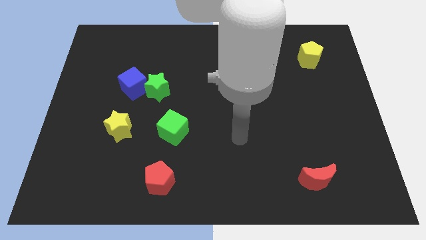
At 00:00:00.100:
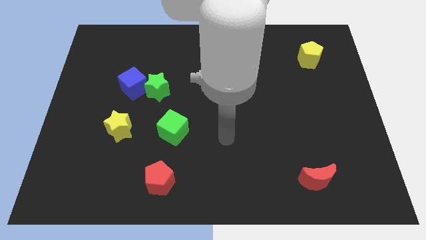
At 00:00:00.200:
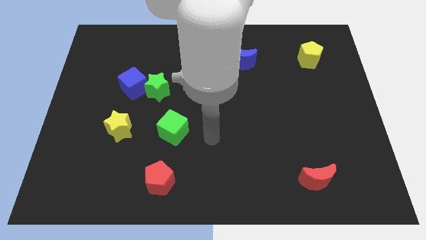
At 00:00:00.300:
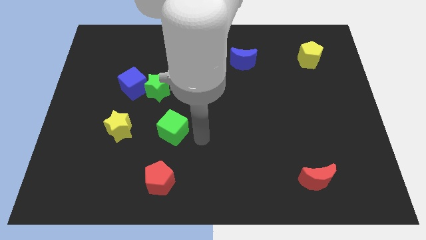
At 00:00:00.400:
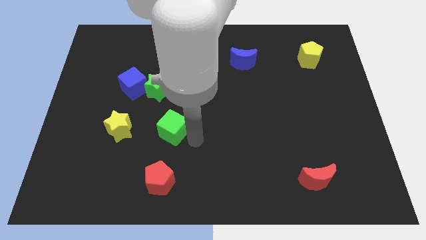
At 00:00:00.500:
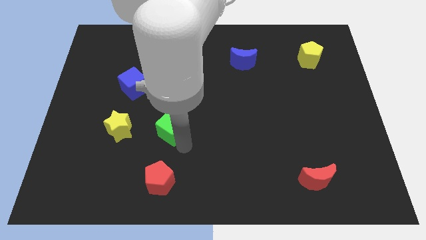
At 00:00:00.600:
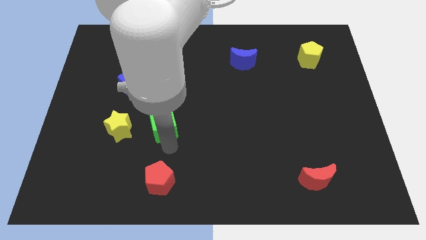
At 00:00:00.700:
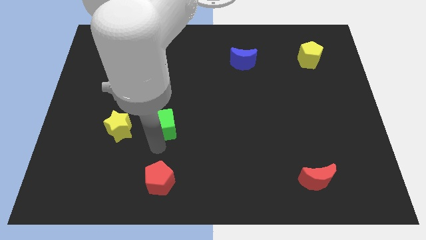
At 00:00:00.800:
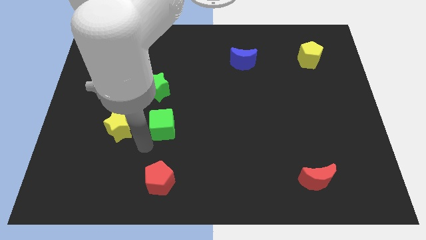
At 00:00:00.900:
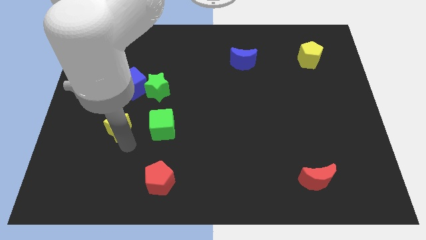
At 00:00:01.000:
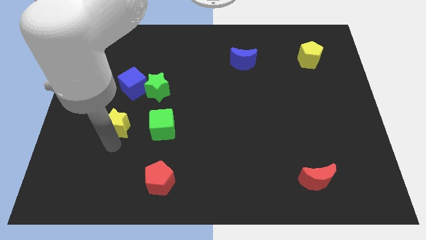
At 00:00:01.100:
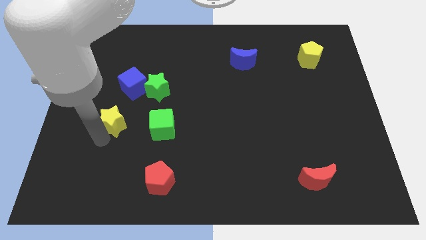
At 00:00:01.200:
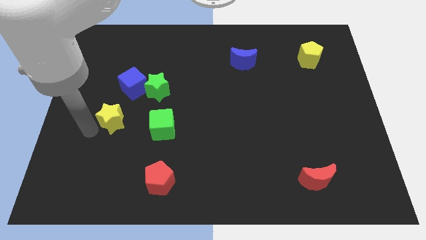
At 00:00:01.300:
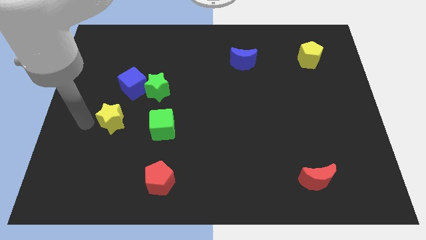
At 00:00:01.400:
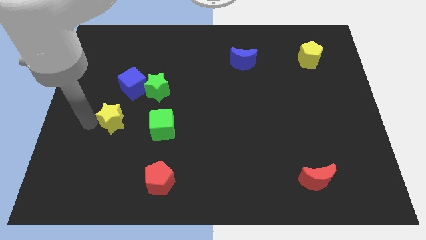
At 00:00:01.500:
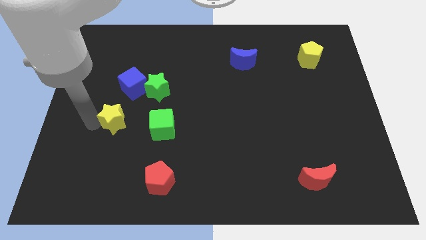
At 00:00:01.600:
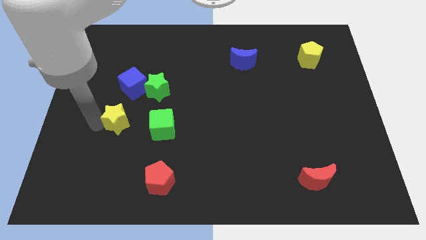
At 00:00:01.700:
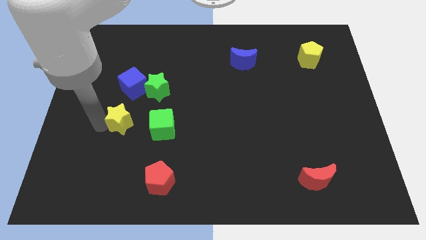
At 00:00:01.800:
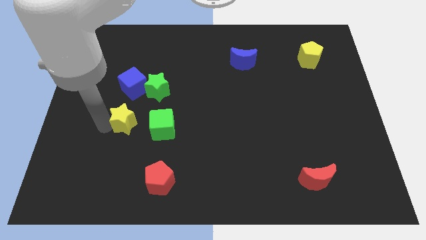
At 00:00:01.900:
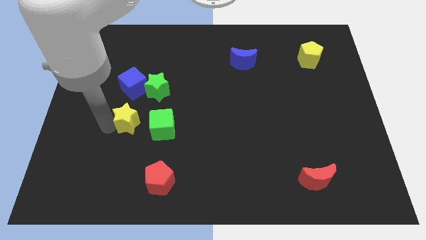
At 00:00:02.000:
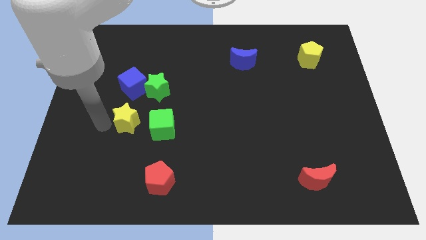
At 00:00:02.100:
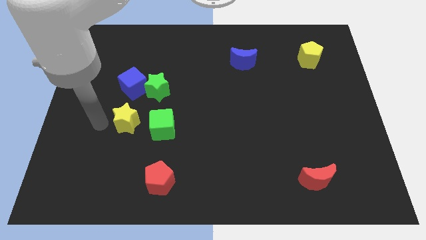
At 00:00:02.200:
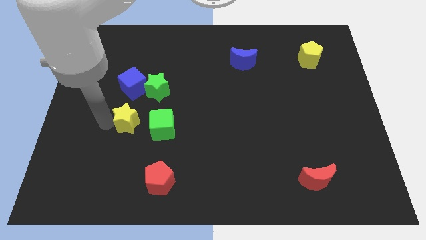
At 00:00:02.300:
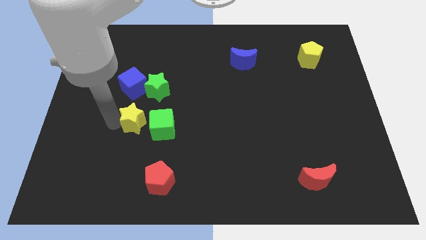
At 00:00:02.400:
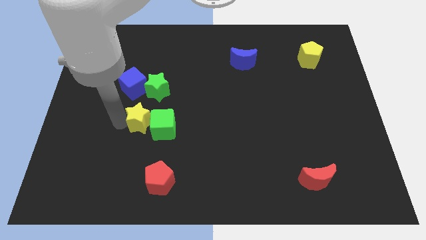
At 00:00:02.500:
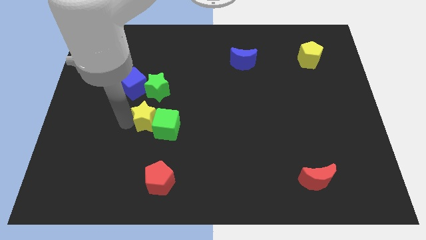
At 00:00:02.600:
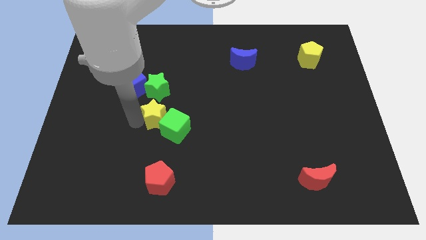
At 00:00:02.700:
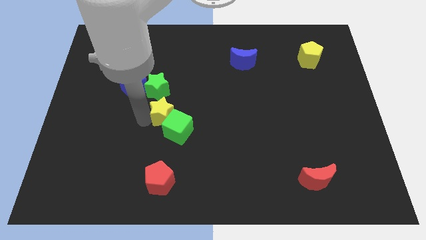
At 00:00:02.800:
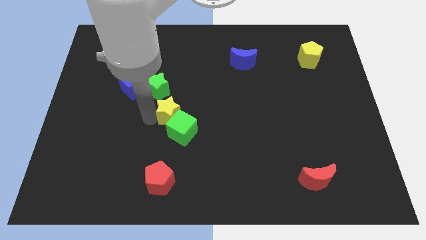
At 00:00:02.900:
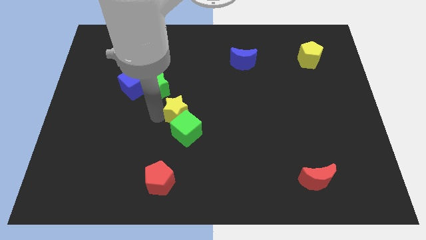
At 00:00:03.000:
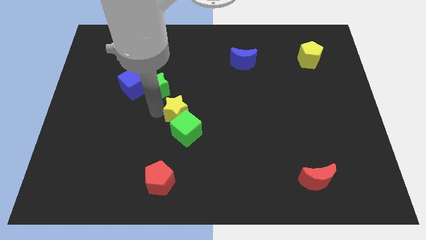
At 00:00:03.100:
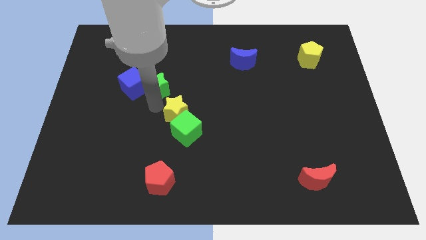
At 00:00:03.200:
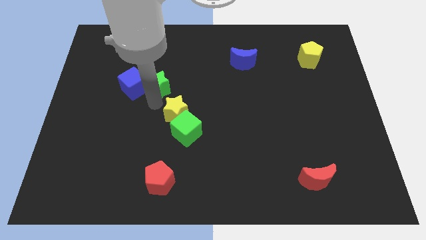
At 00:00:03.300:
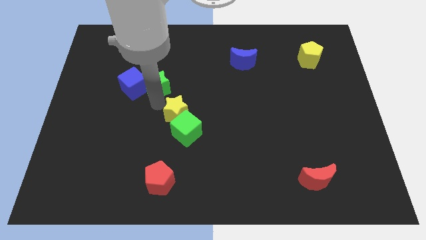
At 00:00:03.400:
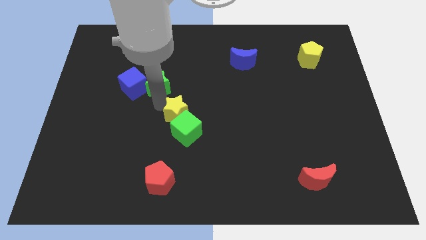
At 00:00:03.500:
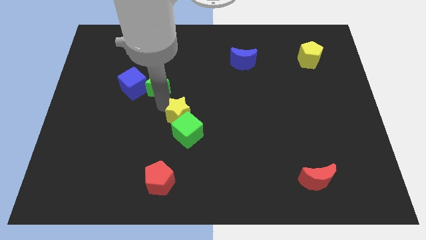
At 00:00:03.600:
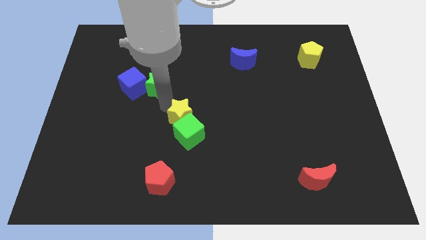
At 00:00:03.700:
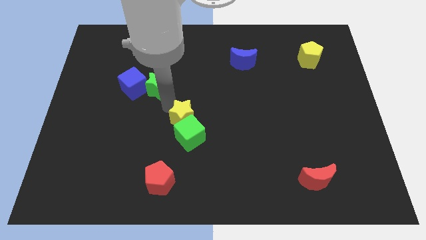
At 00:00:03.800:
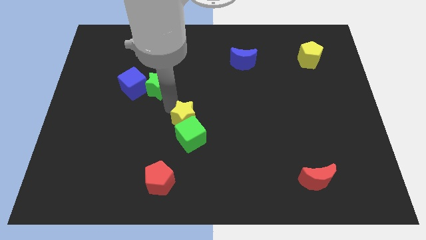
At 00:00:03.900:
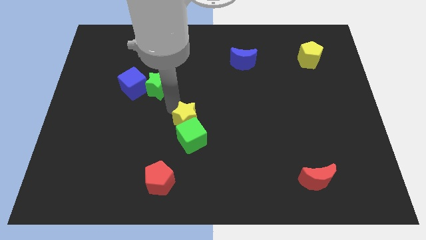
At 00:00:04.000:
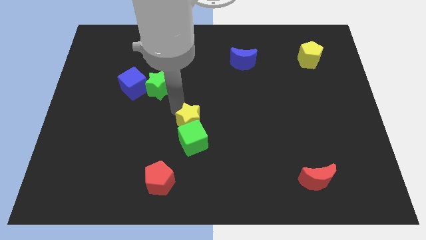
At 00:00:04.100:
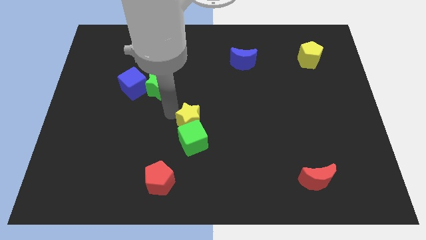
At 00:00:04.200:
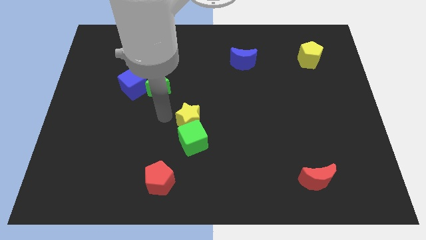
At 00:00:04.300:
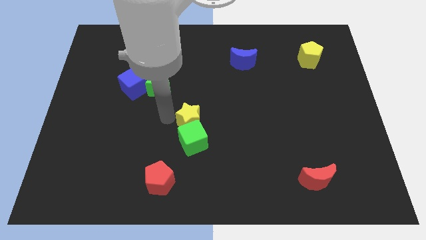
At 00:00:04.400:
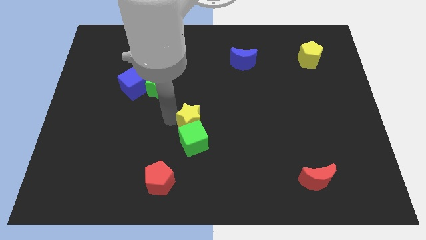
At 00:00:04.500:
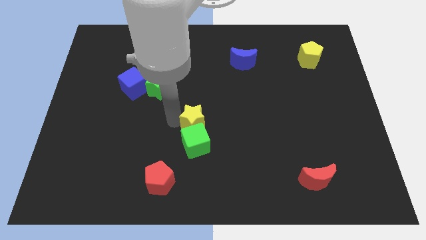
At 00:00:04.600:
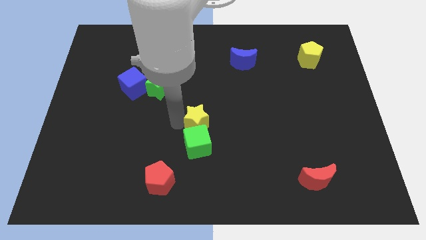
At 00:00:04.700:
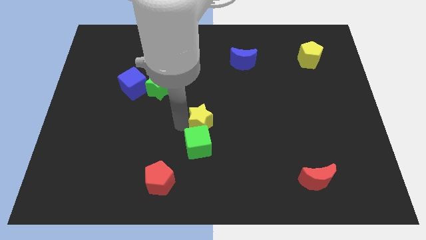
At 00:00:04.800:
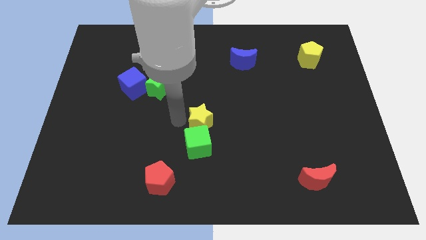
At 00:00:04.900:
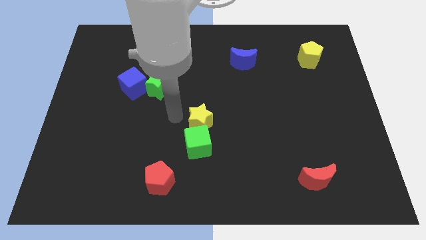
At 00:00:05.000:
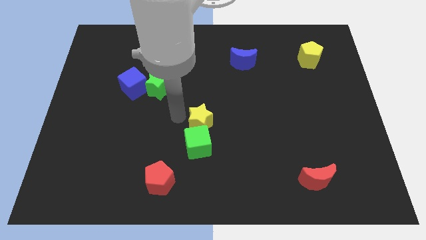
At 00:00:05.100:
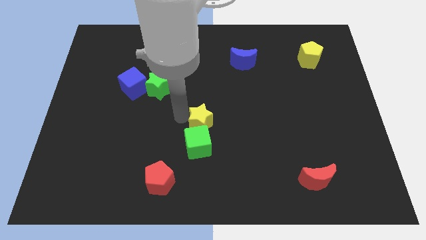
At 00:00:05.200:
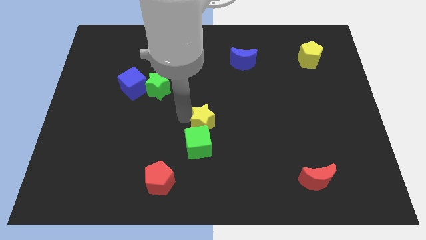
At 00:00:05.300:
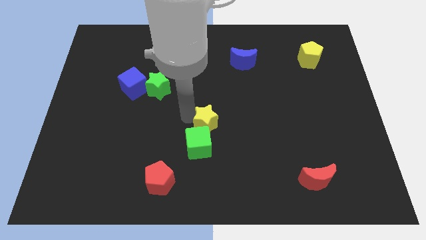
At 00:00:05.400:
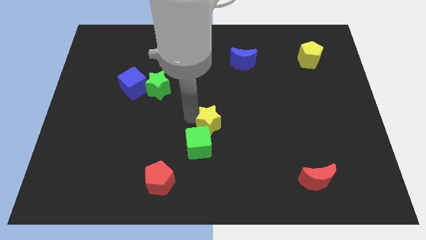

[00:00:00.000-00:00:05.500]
push the yellow star right

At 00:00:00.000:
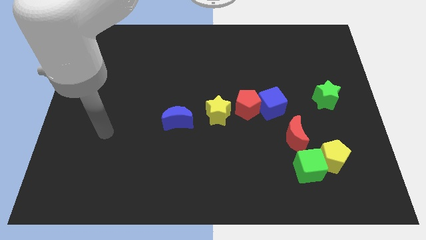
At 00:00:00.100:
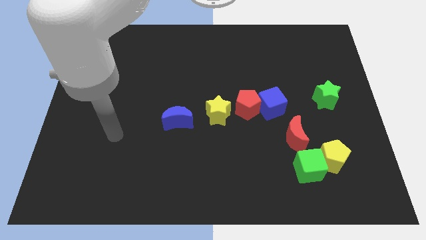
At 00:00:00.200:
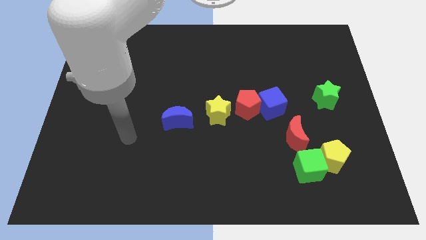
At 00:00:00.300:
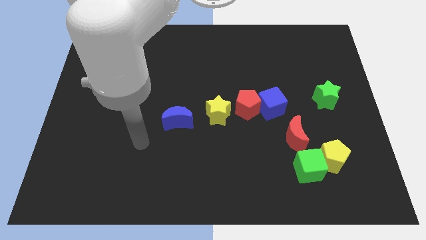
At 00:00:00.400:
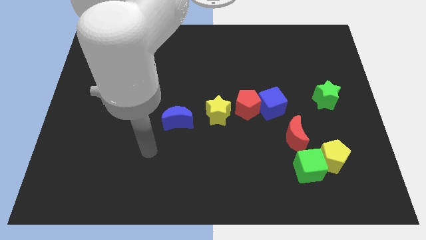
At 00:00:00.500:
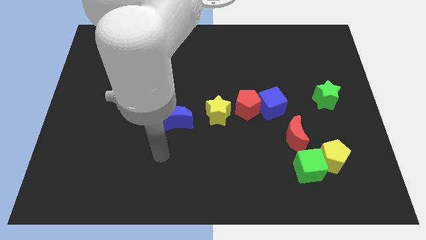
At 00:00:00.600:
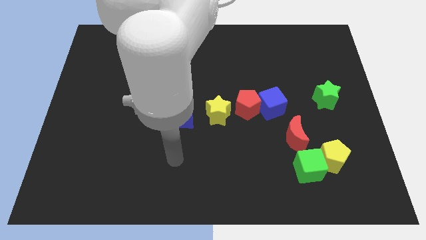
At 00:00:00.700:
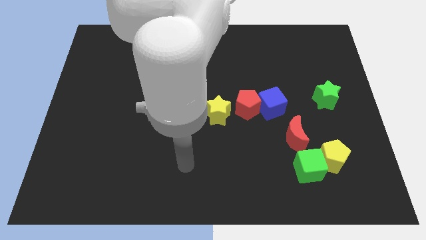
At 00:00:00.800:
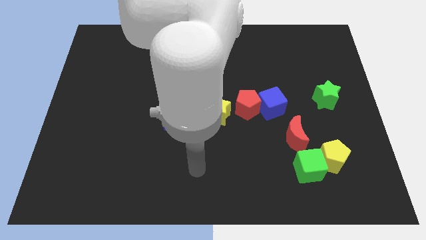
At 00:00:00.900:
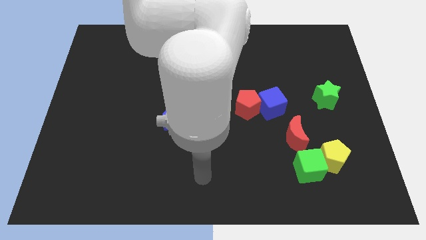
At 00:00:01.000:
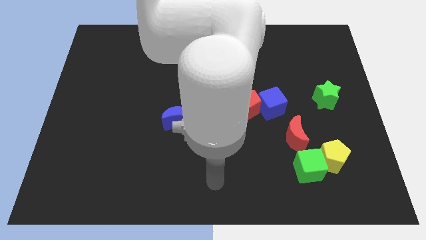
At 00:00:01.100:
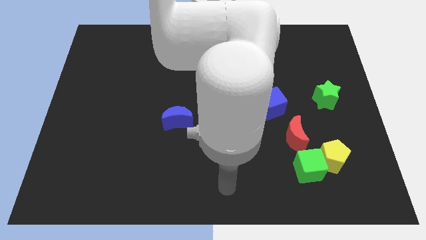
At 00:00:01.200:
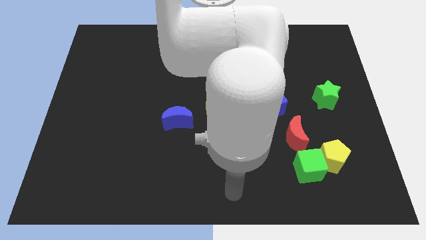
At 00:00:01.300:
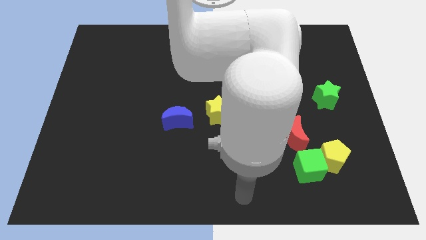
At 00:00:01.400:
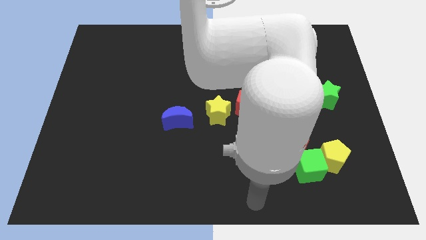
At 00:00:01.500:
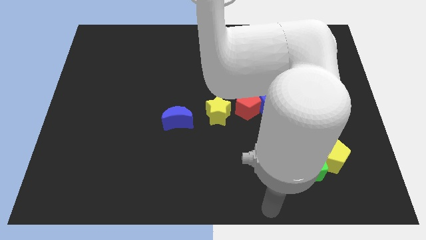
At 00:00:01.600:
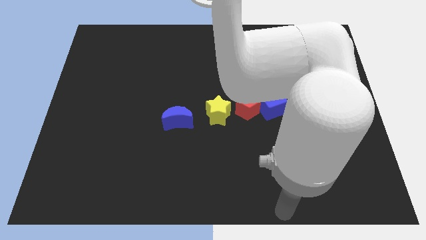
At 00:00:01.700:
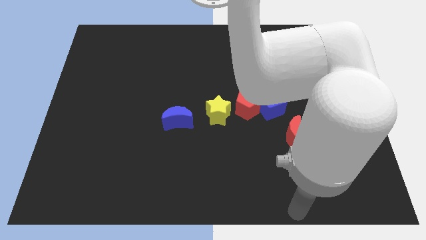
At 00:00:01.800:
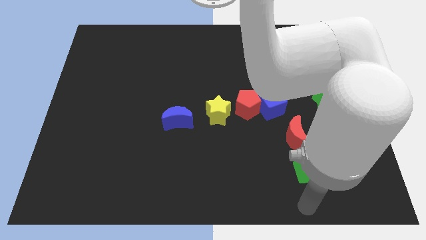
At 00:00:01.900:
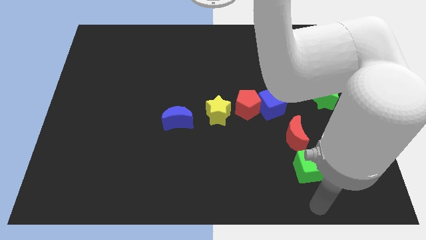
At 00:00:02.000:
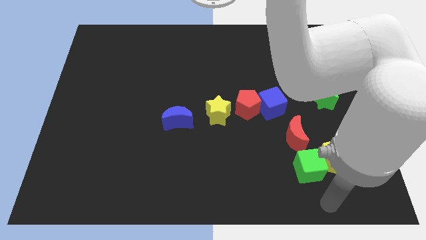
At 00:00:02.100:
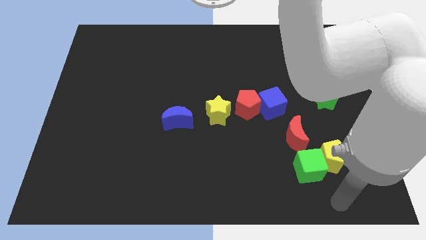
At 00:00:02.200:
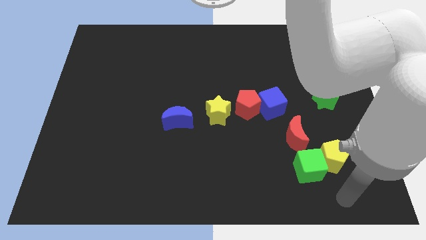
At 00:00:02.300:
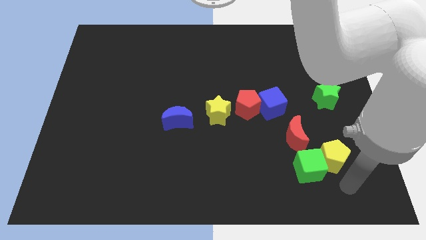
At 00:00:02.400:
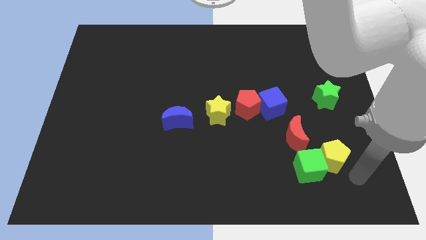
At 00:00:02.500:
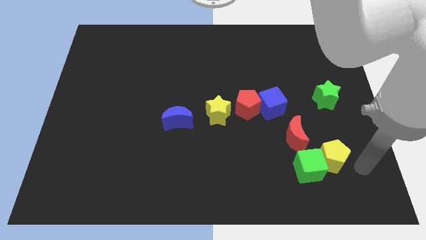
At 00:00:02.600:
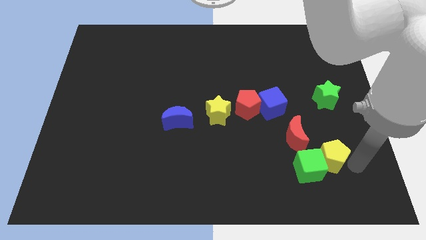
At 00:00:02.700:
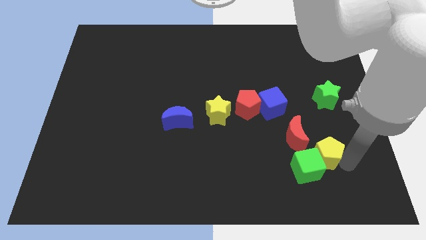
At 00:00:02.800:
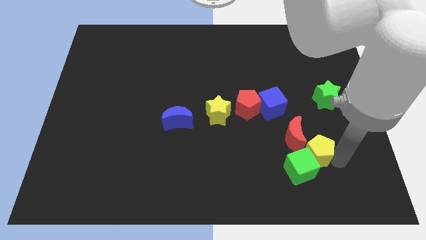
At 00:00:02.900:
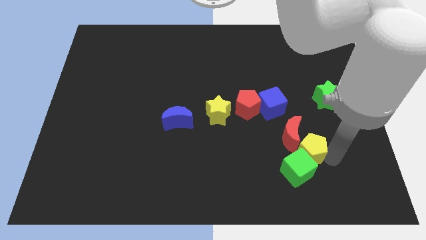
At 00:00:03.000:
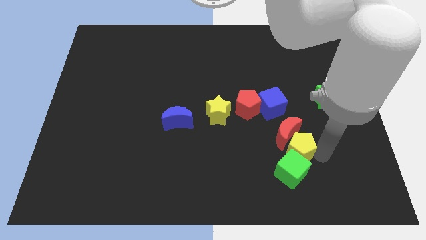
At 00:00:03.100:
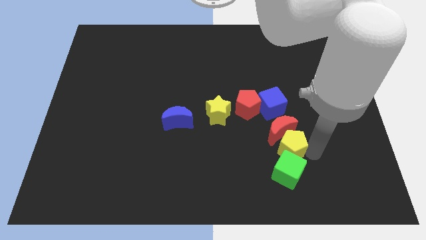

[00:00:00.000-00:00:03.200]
push the yellow pentagon a little left
